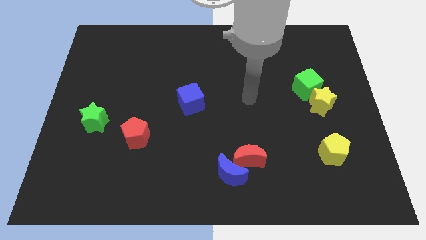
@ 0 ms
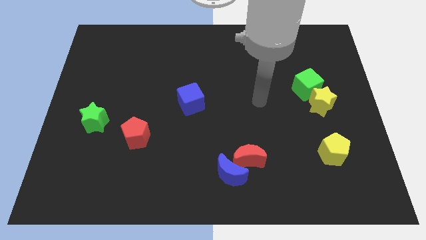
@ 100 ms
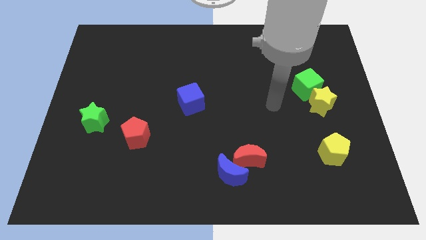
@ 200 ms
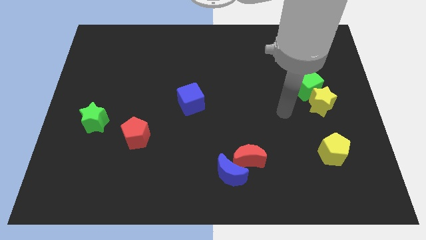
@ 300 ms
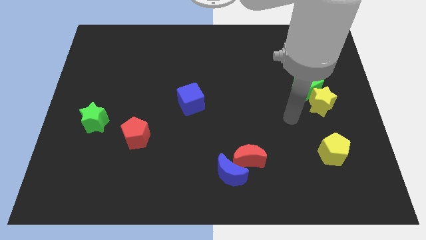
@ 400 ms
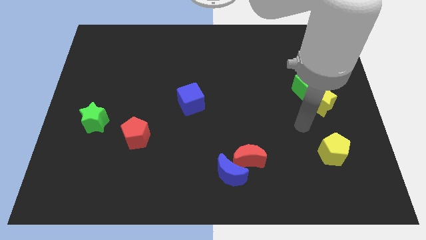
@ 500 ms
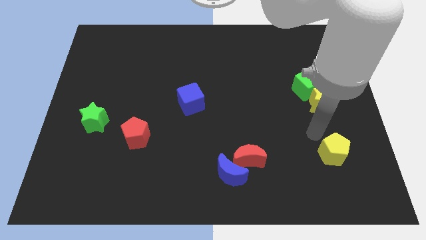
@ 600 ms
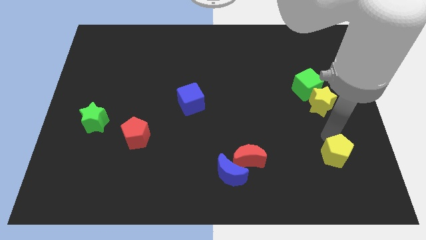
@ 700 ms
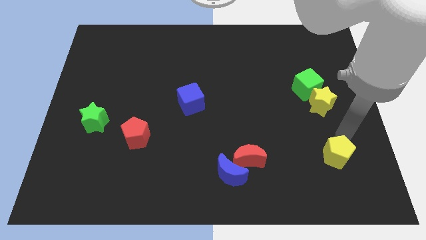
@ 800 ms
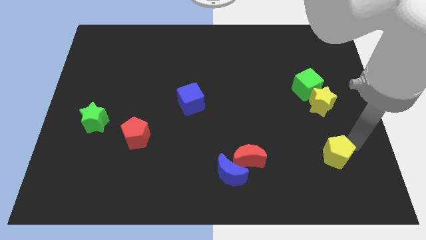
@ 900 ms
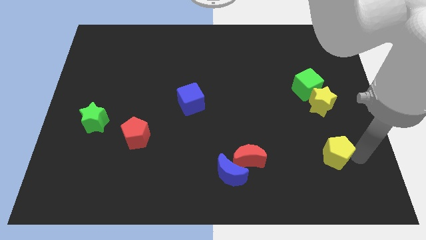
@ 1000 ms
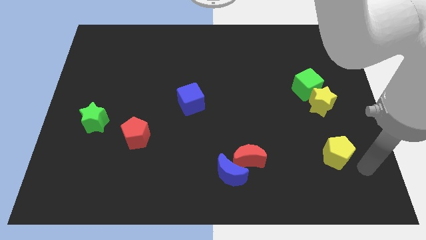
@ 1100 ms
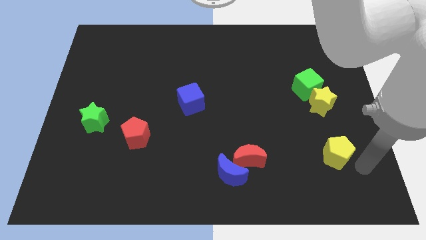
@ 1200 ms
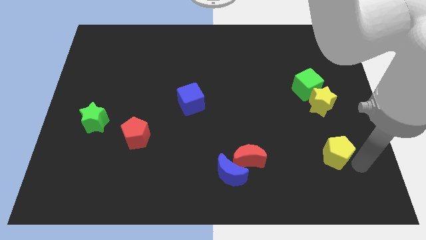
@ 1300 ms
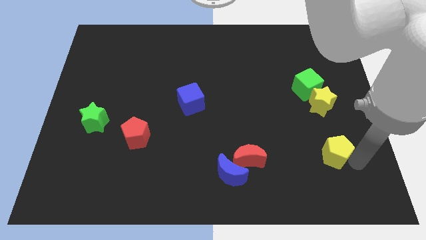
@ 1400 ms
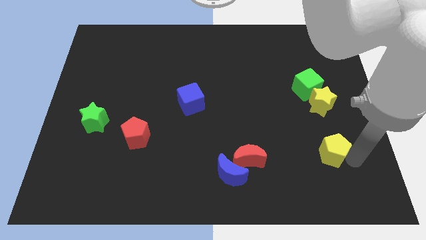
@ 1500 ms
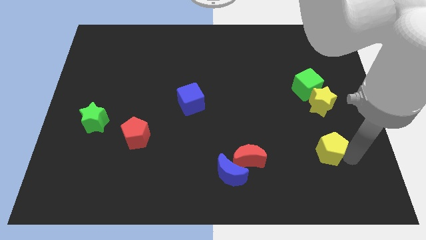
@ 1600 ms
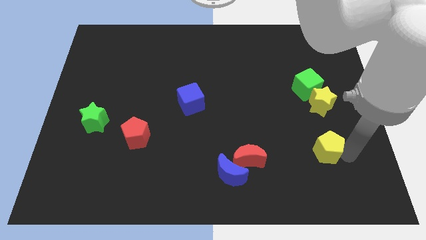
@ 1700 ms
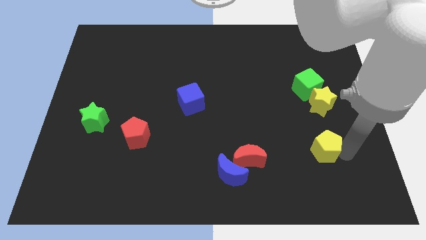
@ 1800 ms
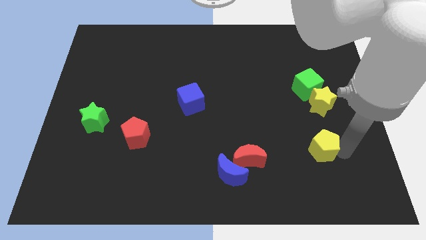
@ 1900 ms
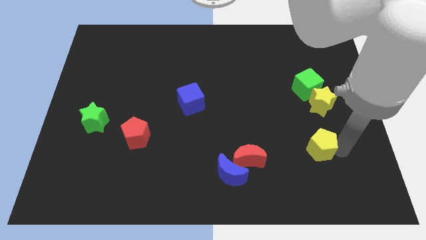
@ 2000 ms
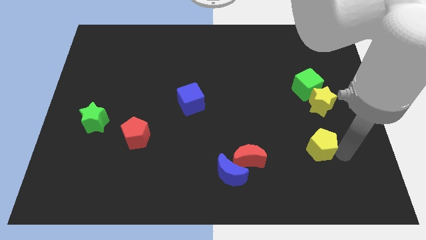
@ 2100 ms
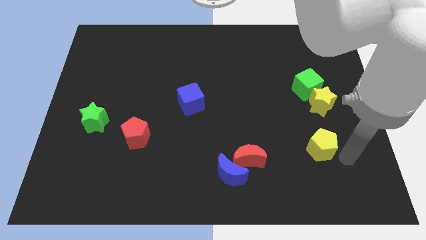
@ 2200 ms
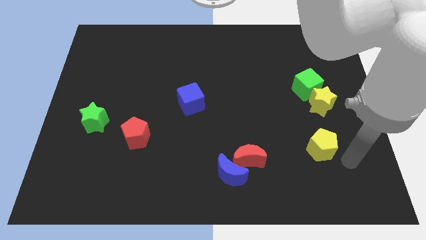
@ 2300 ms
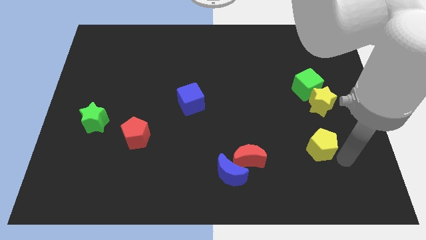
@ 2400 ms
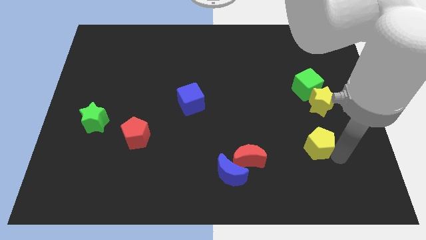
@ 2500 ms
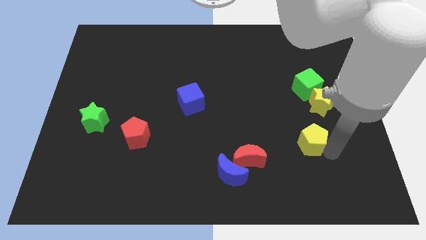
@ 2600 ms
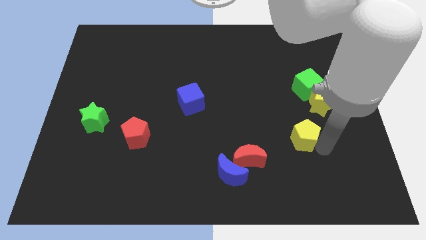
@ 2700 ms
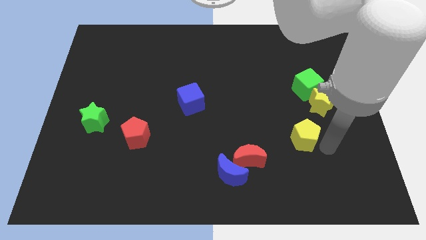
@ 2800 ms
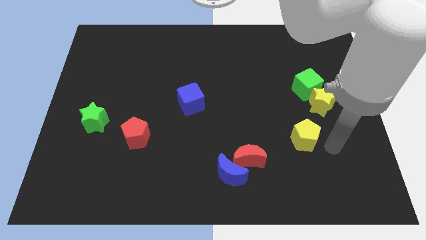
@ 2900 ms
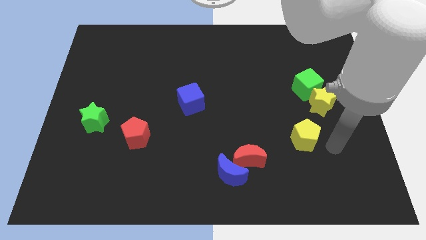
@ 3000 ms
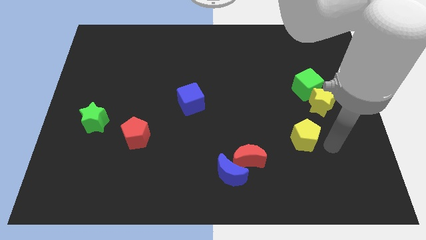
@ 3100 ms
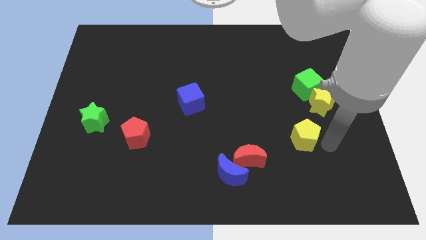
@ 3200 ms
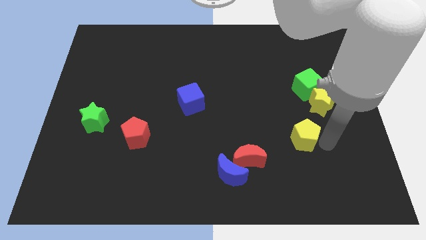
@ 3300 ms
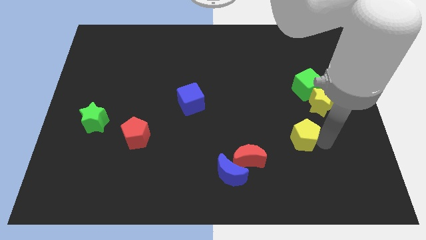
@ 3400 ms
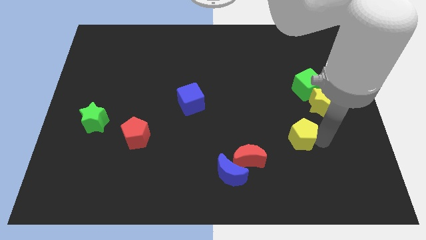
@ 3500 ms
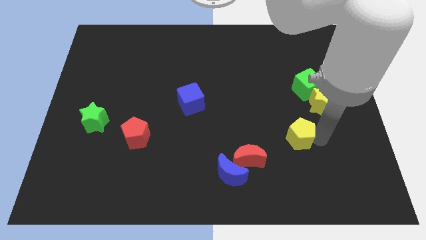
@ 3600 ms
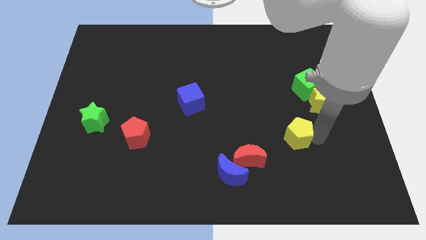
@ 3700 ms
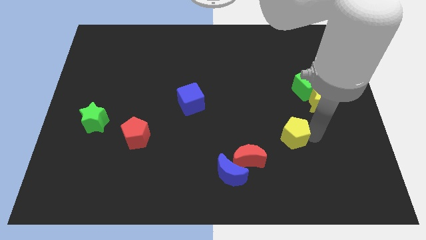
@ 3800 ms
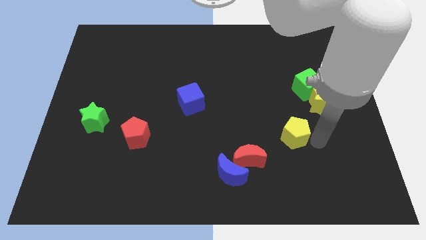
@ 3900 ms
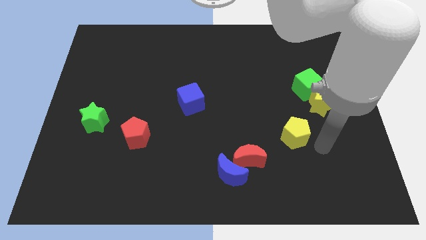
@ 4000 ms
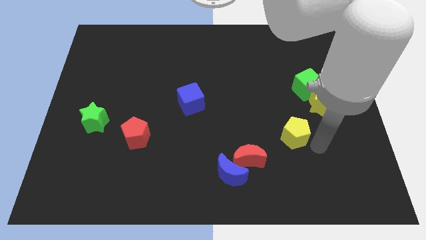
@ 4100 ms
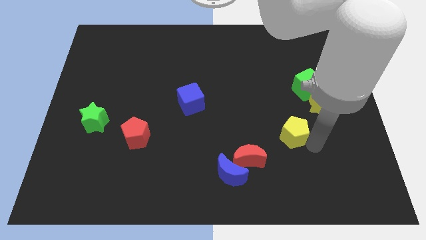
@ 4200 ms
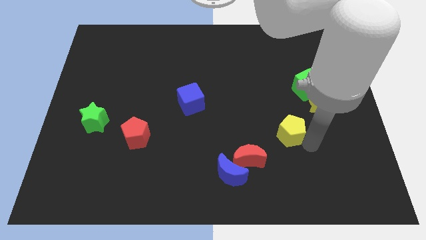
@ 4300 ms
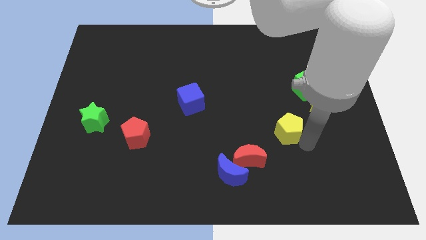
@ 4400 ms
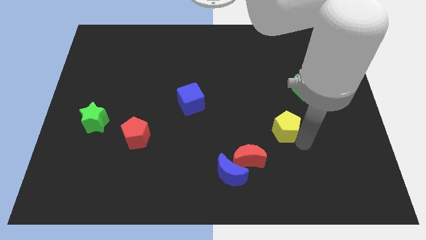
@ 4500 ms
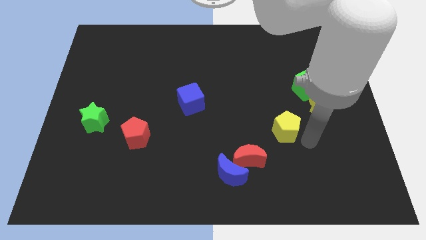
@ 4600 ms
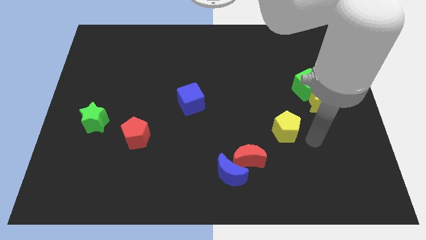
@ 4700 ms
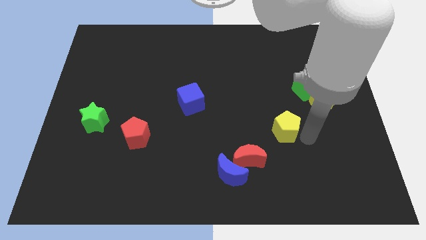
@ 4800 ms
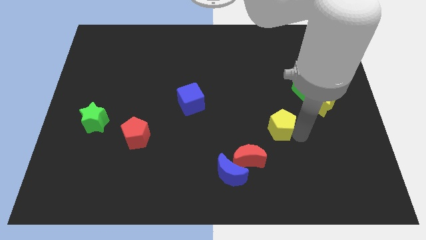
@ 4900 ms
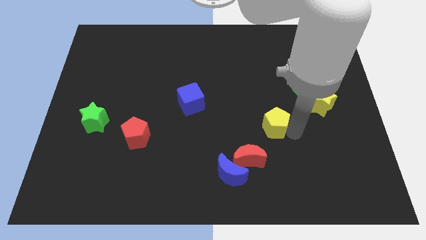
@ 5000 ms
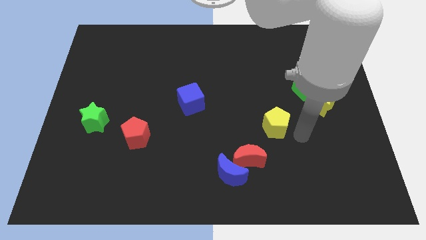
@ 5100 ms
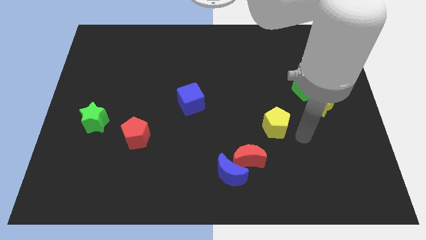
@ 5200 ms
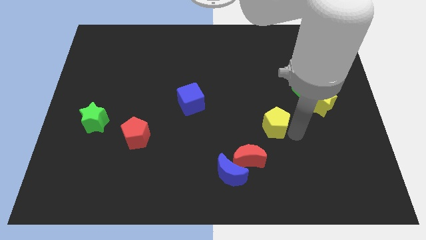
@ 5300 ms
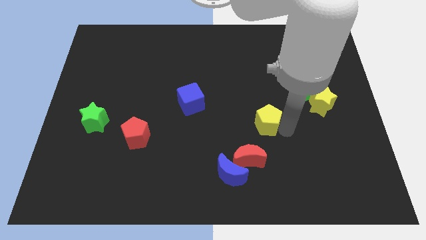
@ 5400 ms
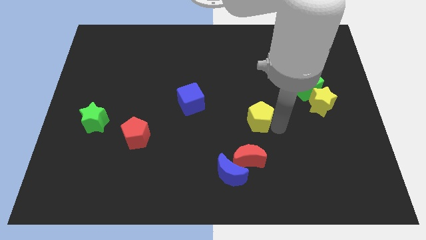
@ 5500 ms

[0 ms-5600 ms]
push the yellow pentagon to the middle

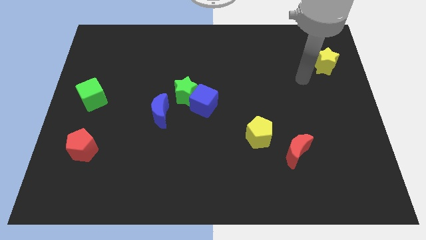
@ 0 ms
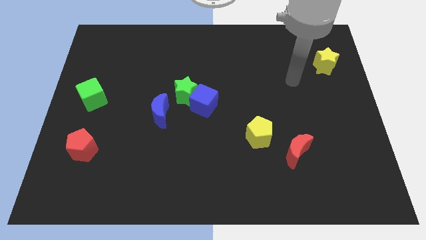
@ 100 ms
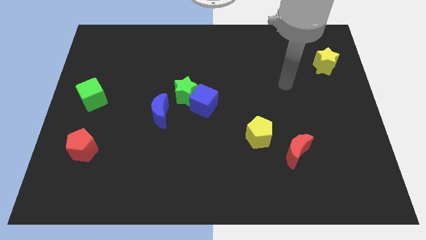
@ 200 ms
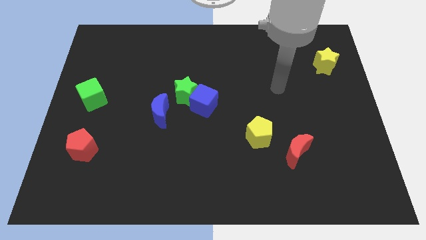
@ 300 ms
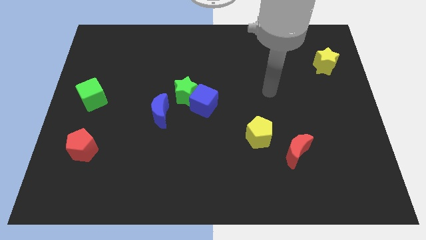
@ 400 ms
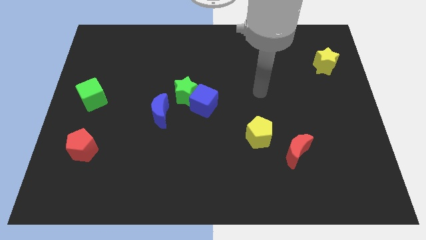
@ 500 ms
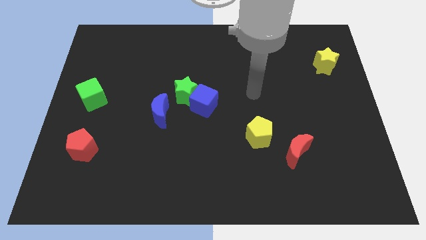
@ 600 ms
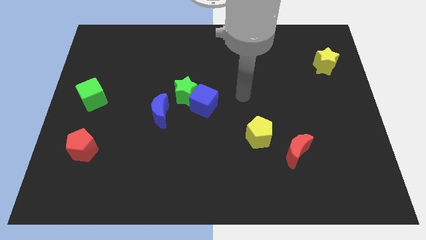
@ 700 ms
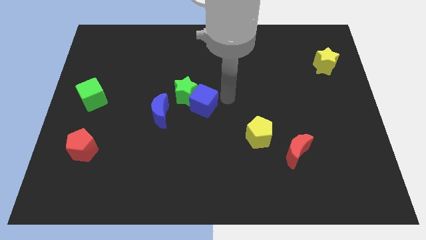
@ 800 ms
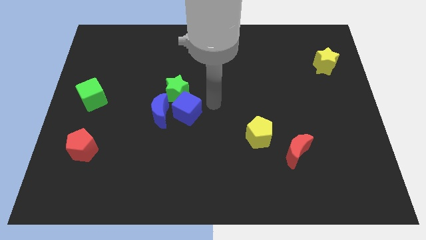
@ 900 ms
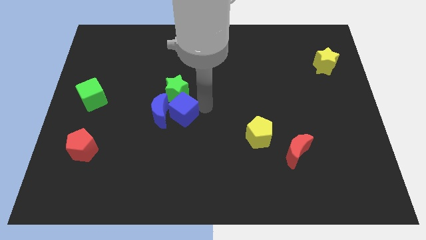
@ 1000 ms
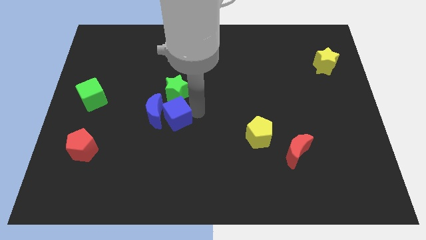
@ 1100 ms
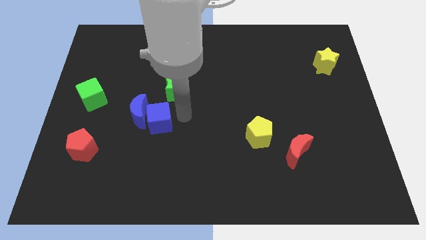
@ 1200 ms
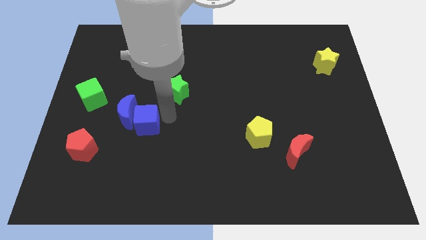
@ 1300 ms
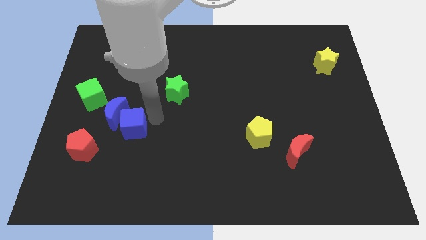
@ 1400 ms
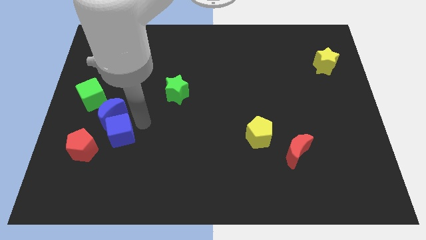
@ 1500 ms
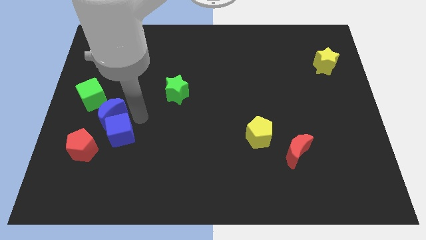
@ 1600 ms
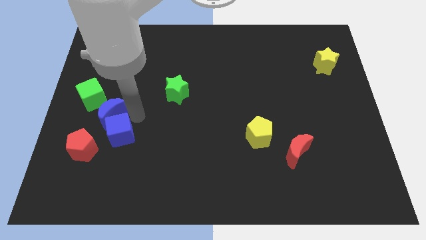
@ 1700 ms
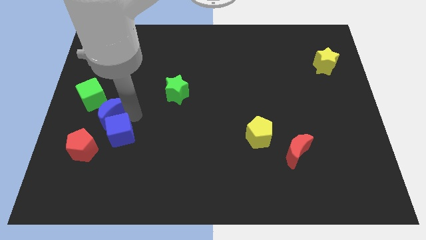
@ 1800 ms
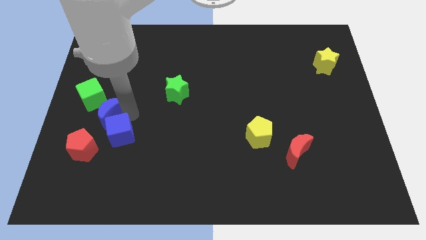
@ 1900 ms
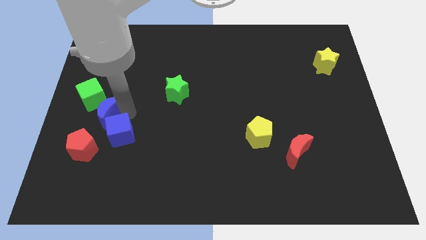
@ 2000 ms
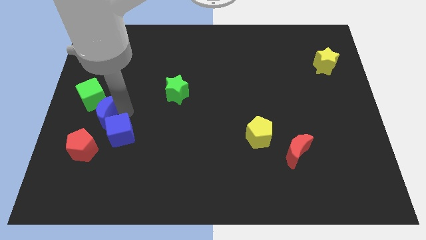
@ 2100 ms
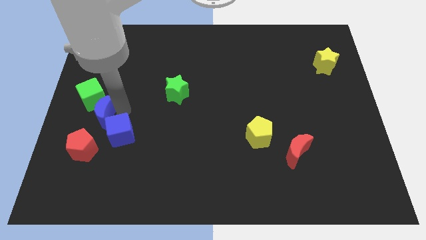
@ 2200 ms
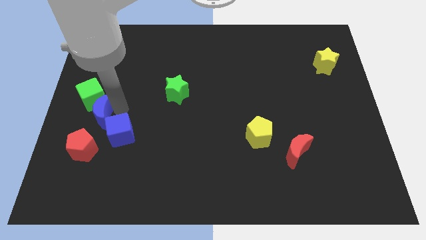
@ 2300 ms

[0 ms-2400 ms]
push the blue moon to the left side

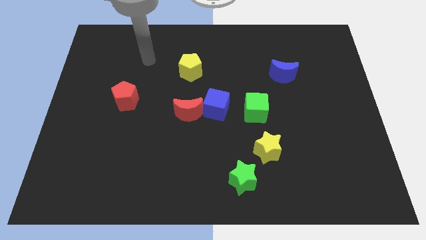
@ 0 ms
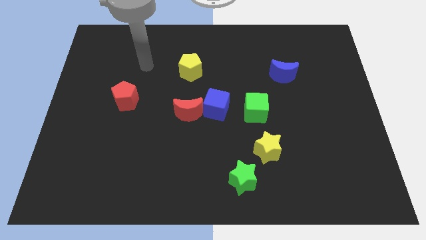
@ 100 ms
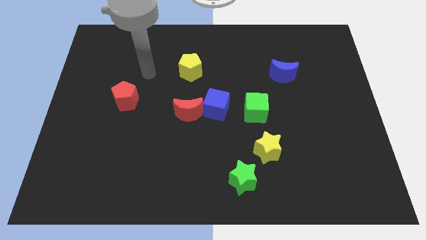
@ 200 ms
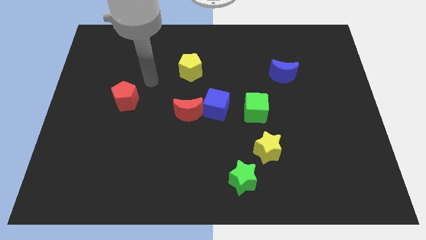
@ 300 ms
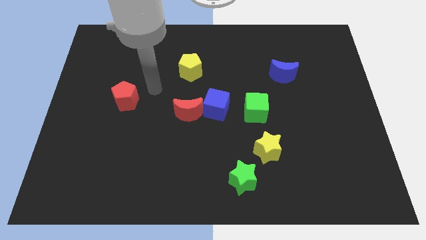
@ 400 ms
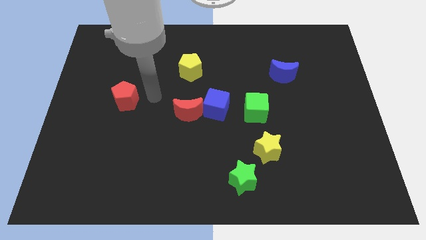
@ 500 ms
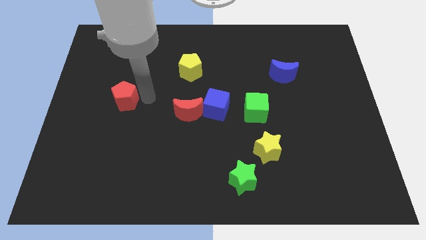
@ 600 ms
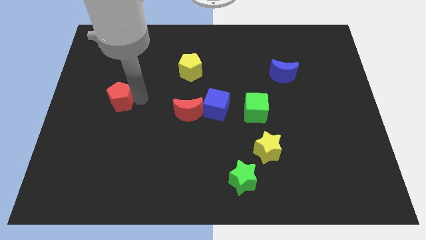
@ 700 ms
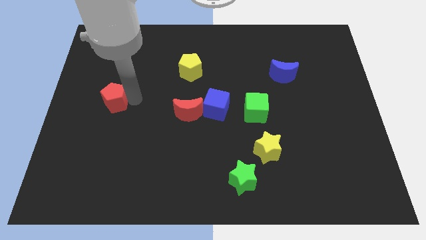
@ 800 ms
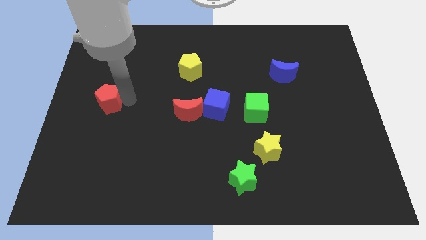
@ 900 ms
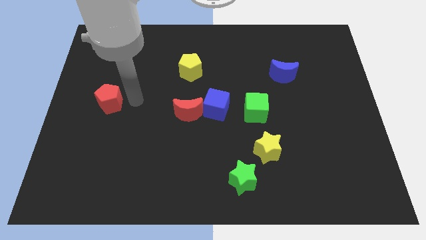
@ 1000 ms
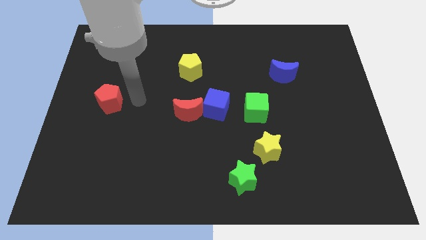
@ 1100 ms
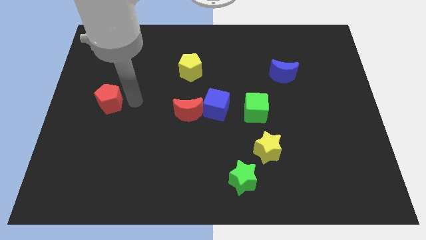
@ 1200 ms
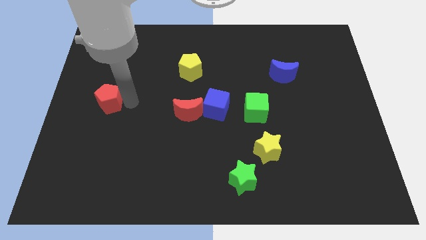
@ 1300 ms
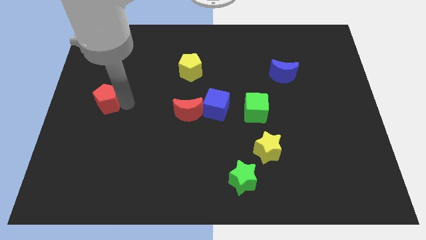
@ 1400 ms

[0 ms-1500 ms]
put the red pentagon to the center left
